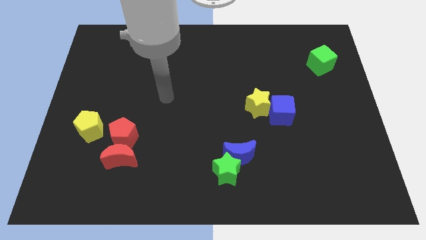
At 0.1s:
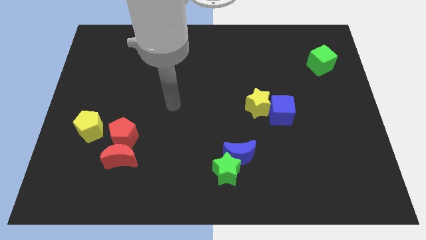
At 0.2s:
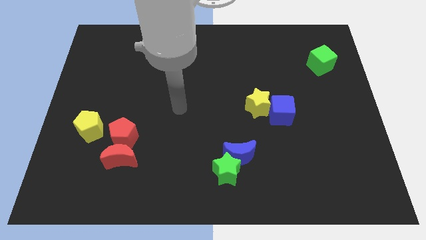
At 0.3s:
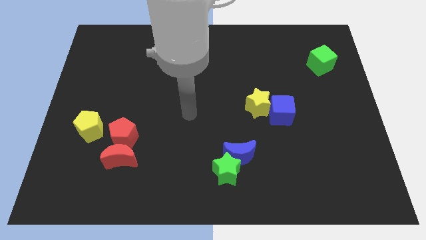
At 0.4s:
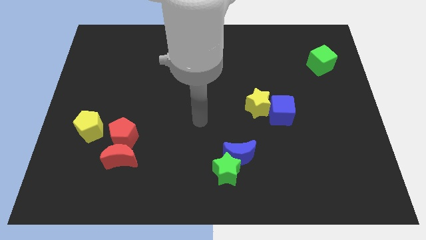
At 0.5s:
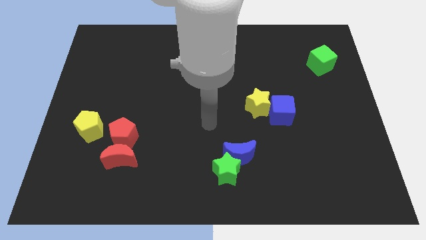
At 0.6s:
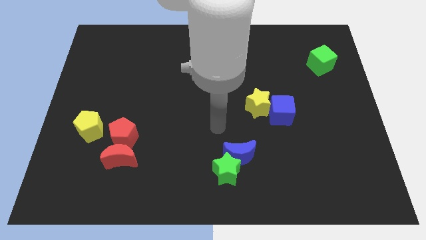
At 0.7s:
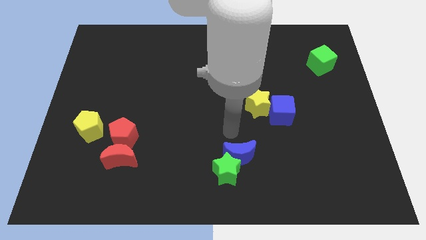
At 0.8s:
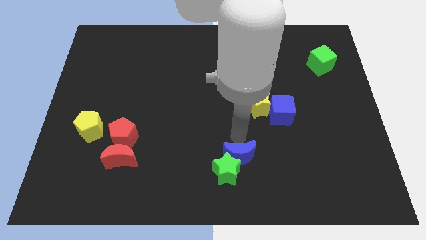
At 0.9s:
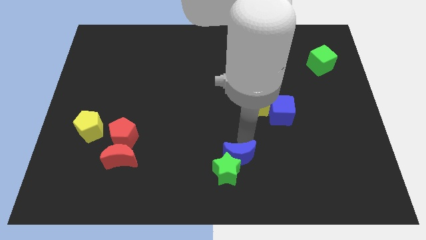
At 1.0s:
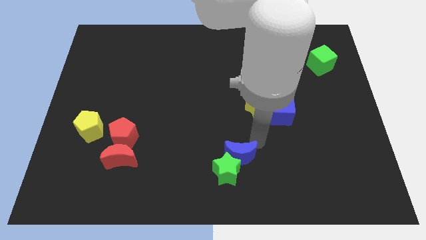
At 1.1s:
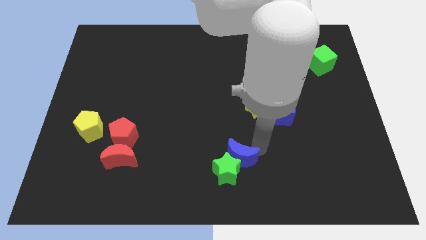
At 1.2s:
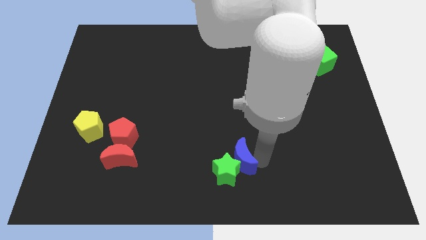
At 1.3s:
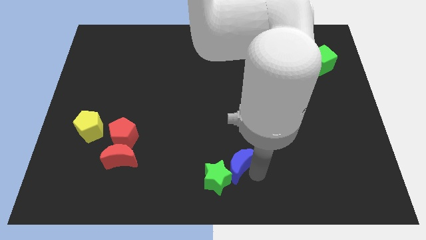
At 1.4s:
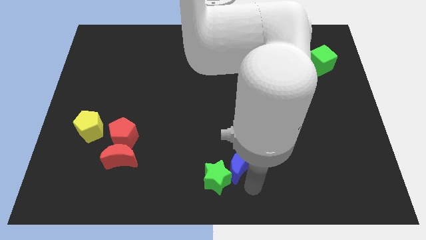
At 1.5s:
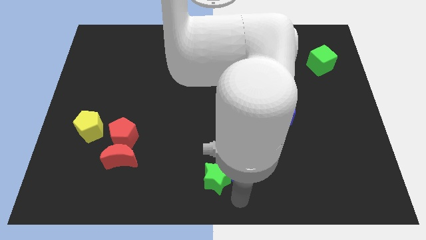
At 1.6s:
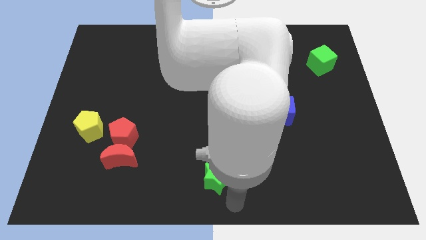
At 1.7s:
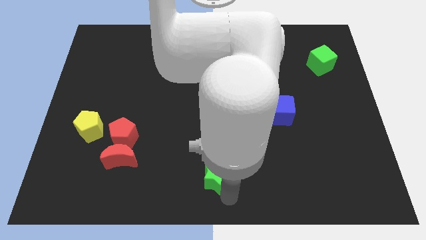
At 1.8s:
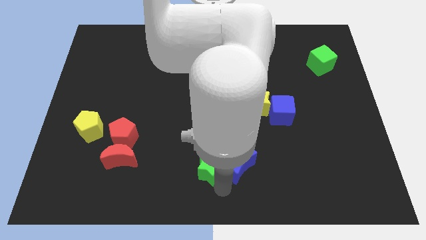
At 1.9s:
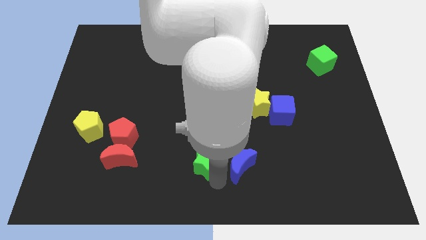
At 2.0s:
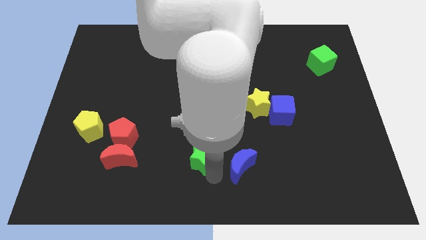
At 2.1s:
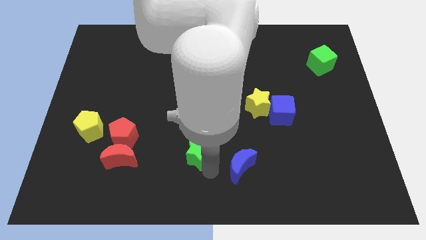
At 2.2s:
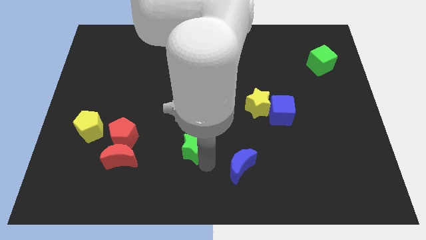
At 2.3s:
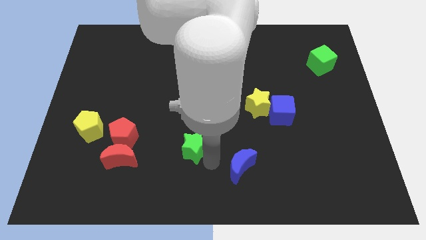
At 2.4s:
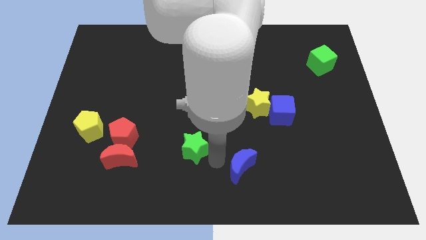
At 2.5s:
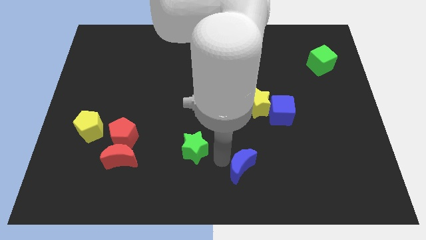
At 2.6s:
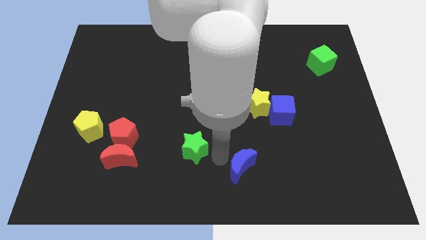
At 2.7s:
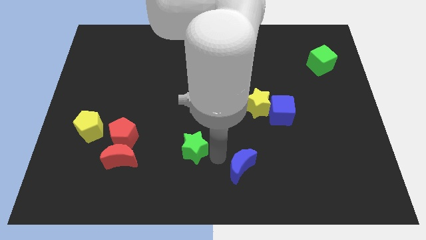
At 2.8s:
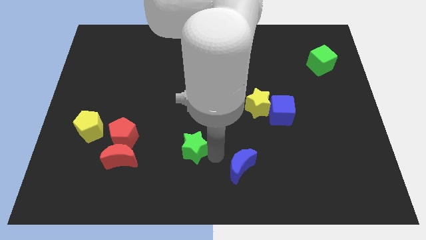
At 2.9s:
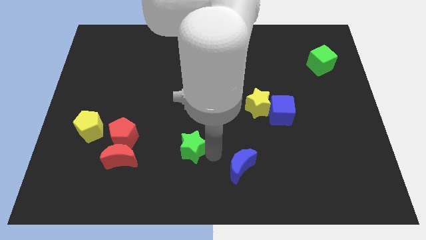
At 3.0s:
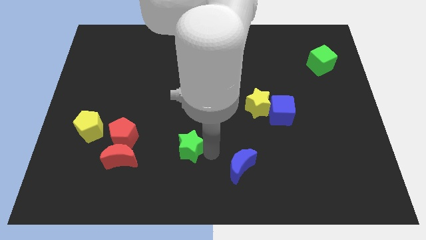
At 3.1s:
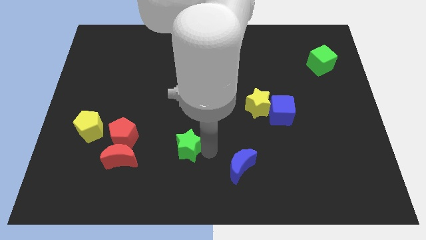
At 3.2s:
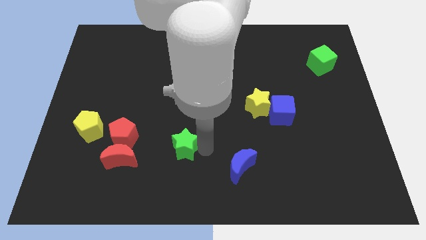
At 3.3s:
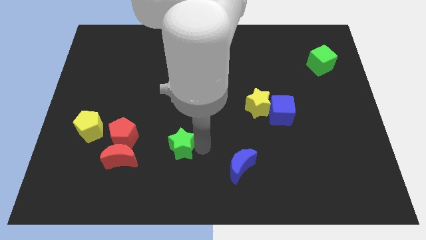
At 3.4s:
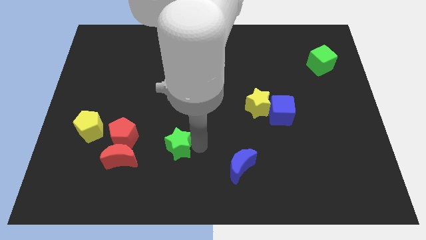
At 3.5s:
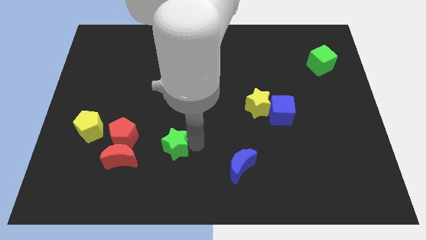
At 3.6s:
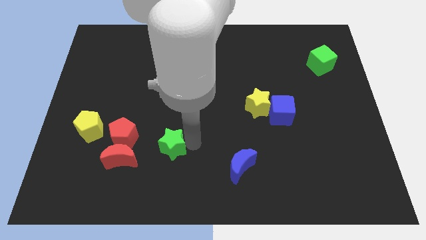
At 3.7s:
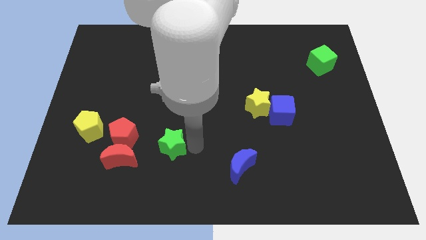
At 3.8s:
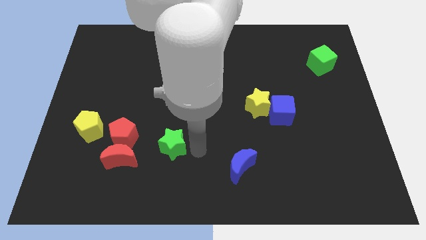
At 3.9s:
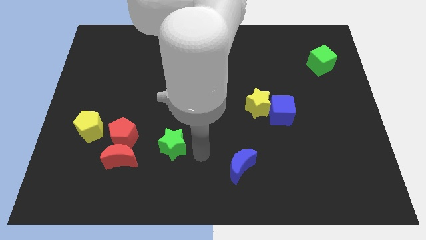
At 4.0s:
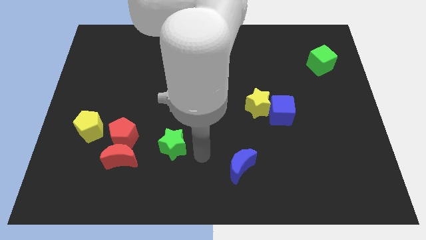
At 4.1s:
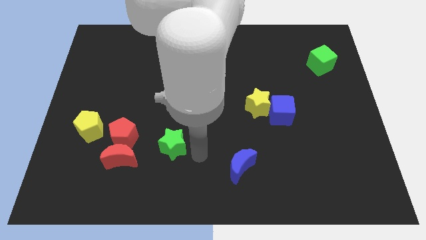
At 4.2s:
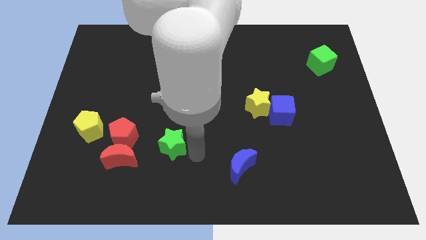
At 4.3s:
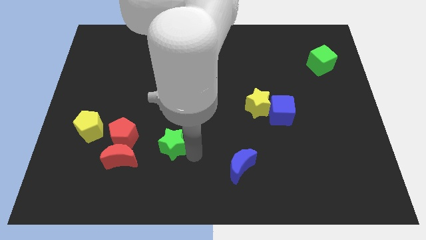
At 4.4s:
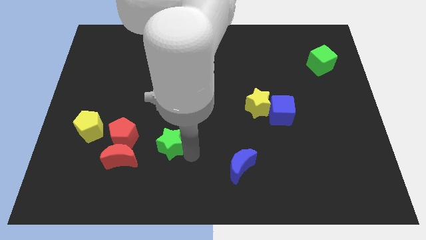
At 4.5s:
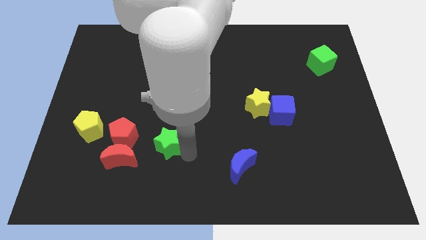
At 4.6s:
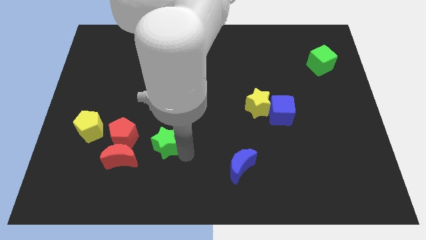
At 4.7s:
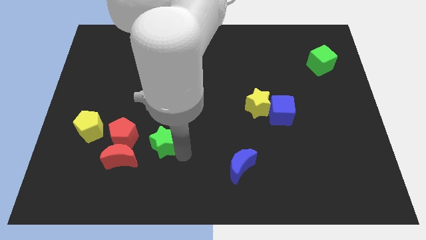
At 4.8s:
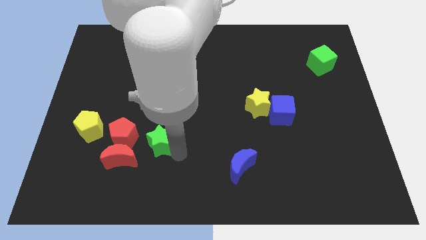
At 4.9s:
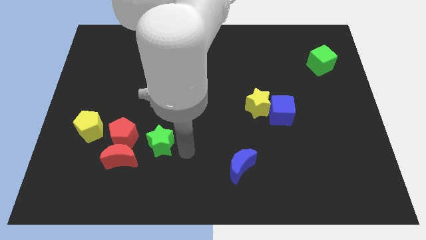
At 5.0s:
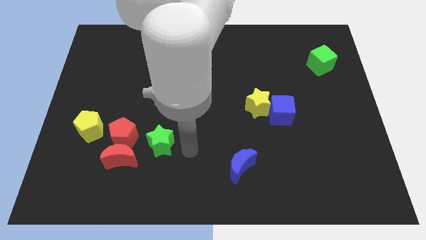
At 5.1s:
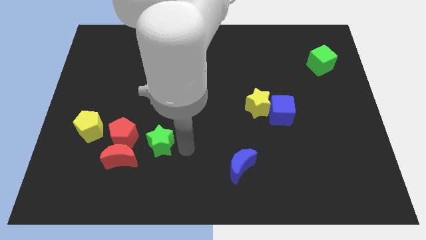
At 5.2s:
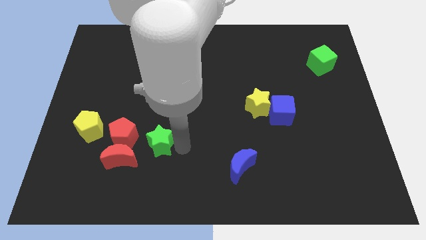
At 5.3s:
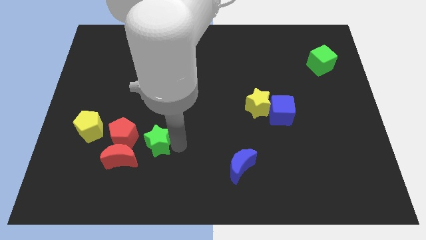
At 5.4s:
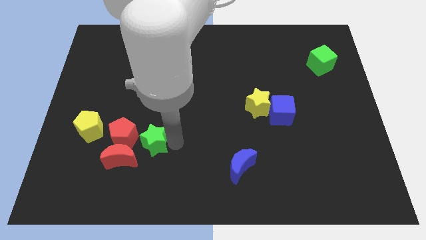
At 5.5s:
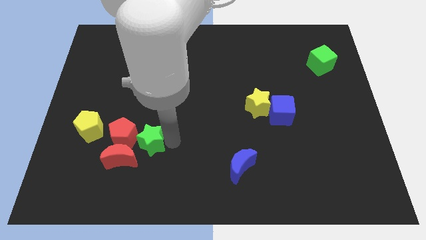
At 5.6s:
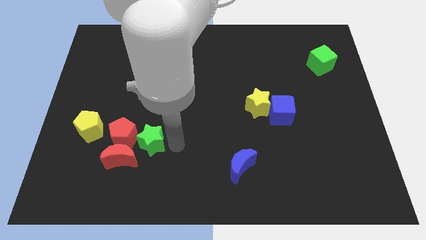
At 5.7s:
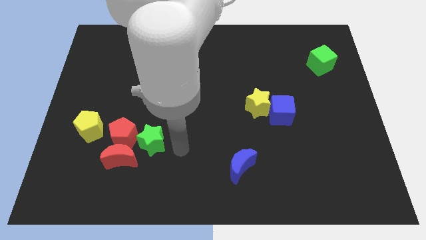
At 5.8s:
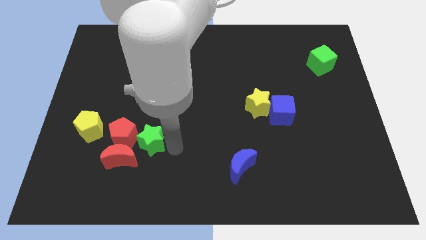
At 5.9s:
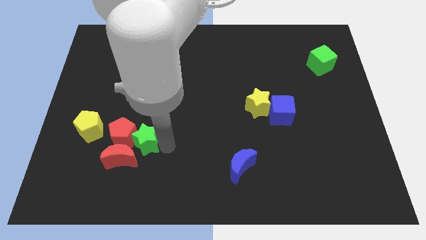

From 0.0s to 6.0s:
push the green star to the red pentagon

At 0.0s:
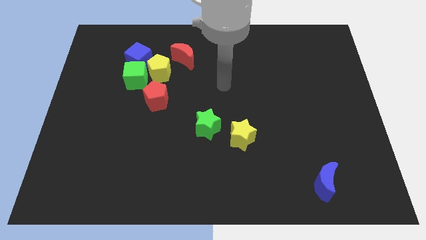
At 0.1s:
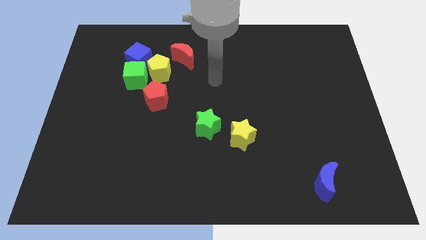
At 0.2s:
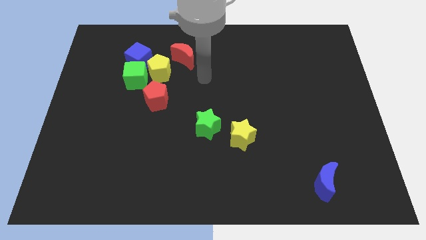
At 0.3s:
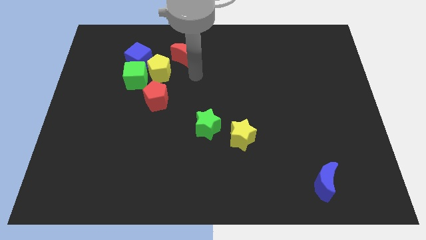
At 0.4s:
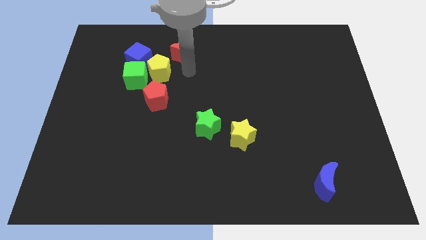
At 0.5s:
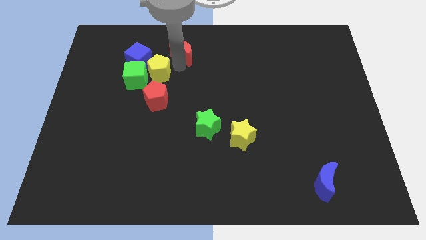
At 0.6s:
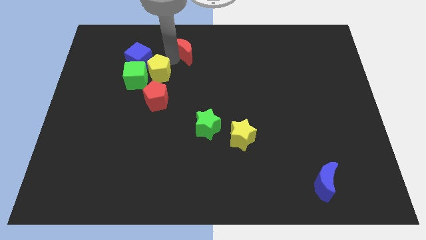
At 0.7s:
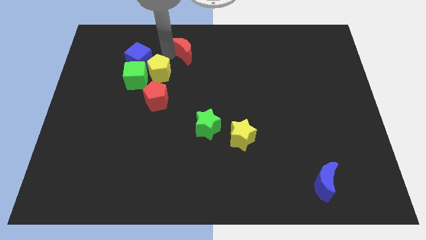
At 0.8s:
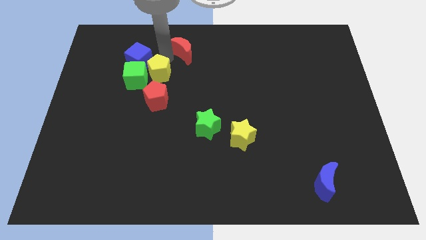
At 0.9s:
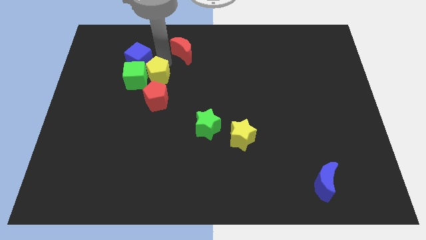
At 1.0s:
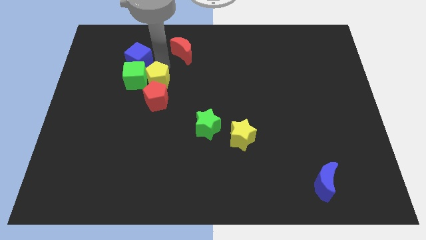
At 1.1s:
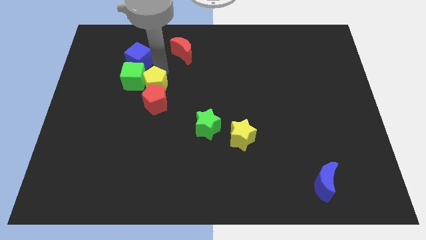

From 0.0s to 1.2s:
push the yellow pentagon to the red pentagon
